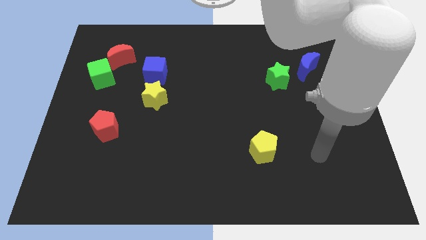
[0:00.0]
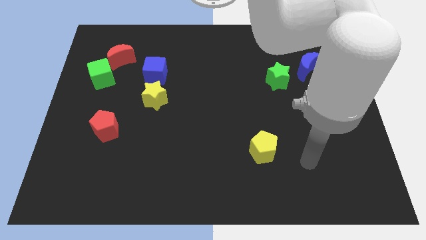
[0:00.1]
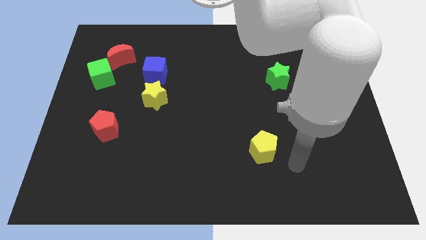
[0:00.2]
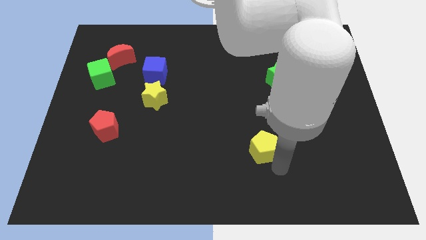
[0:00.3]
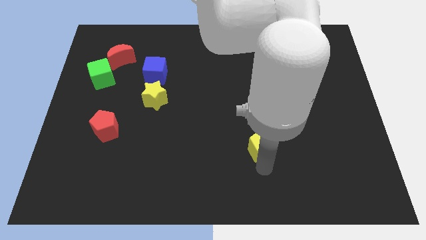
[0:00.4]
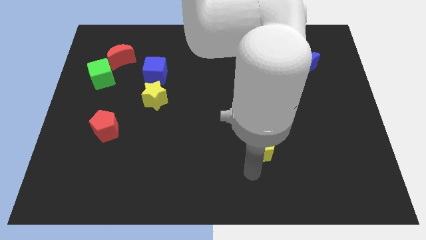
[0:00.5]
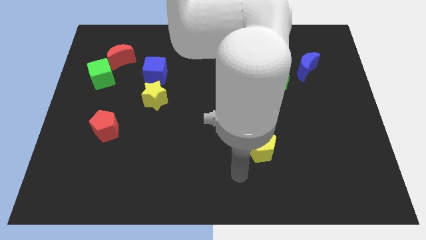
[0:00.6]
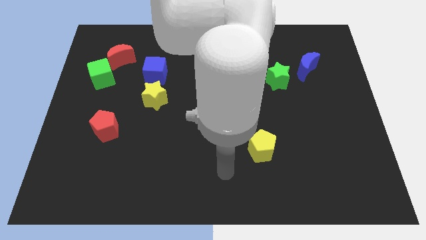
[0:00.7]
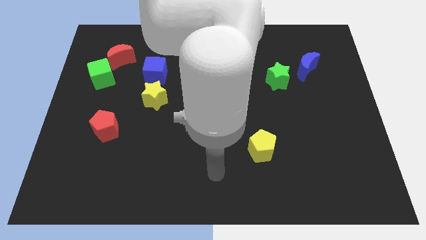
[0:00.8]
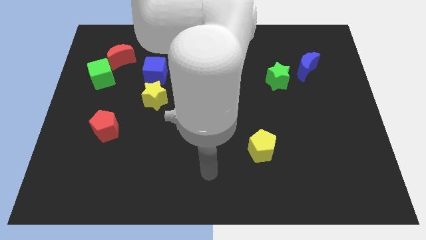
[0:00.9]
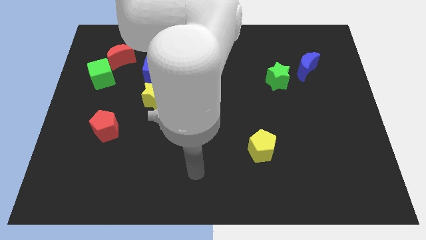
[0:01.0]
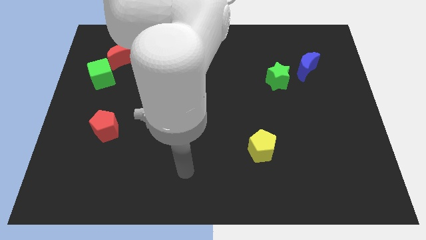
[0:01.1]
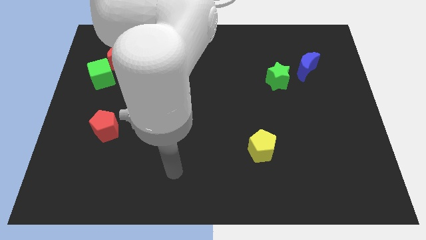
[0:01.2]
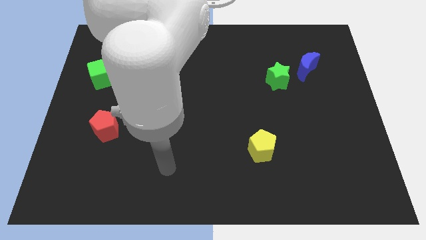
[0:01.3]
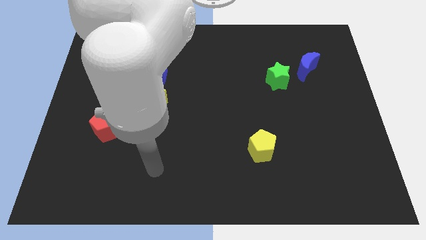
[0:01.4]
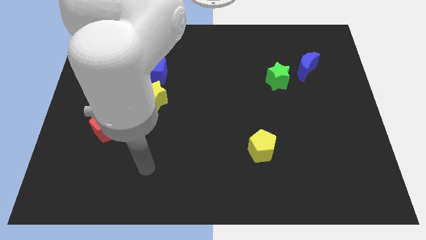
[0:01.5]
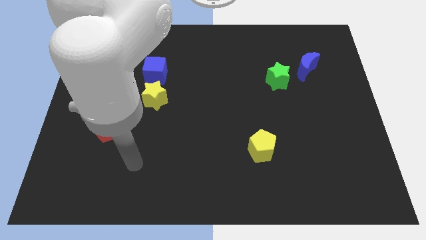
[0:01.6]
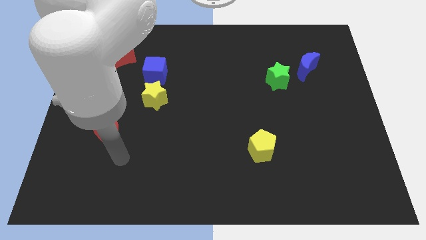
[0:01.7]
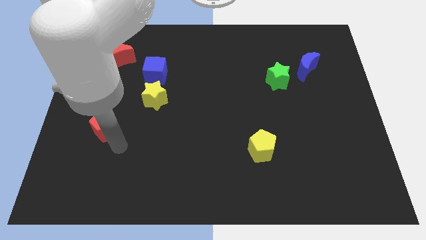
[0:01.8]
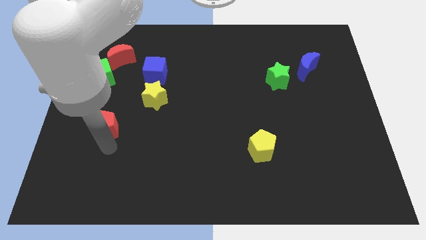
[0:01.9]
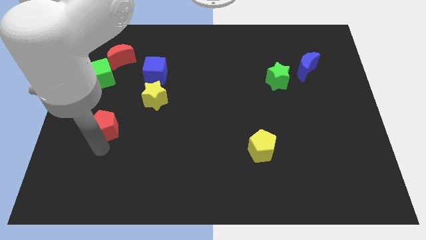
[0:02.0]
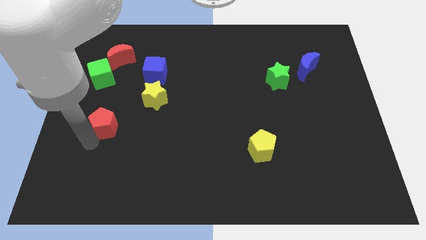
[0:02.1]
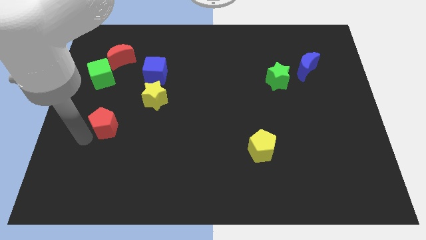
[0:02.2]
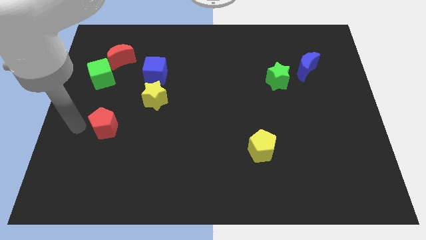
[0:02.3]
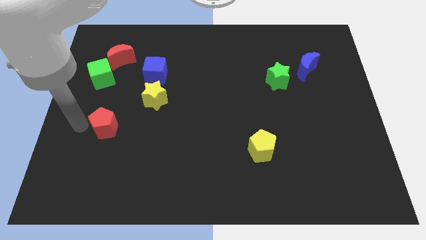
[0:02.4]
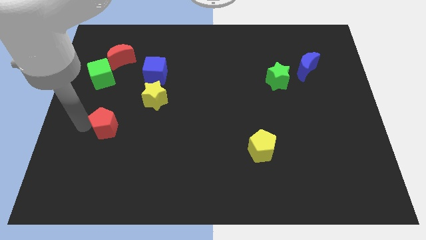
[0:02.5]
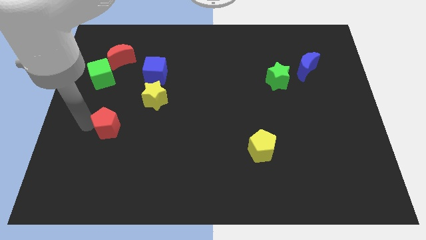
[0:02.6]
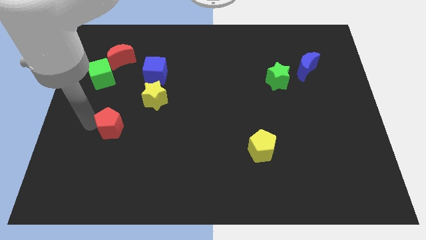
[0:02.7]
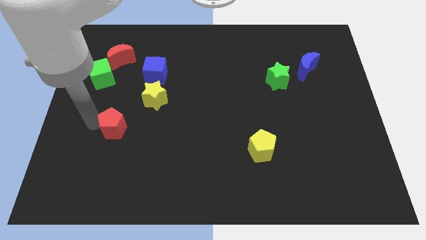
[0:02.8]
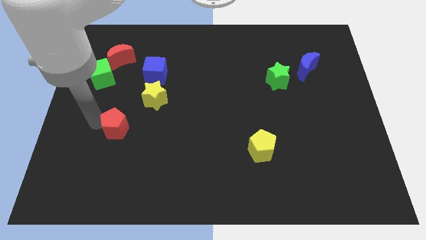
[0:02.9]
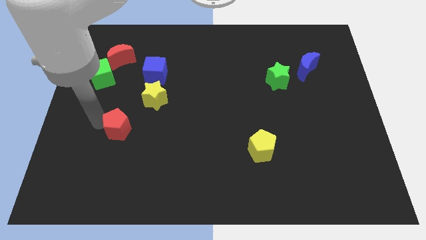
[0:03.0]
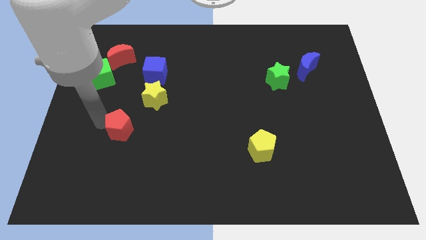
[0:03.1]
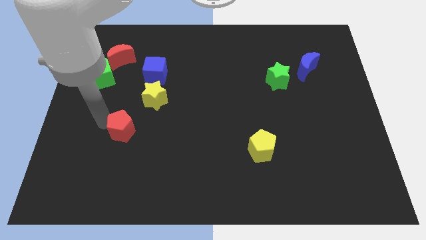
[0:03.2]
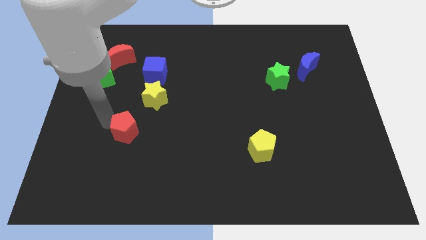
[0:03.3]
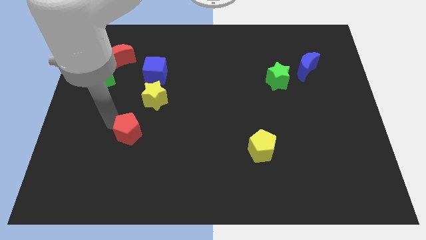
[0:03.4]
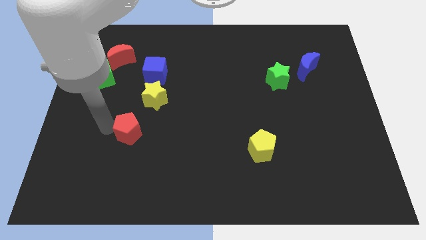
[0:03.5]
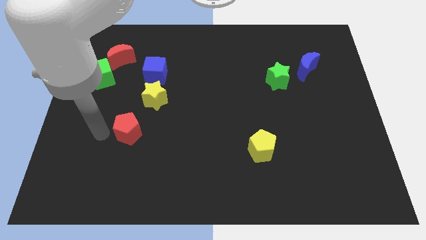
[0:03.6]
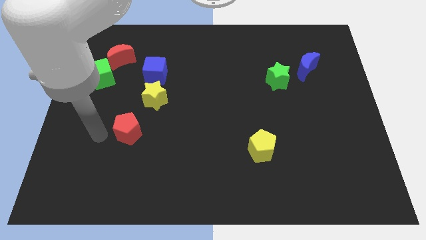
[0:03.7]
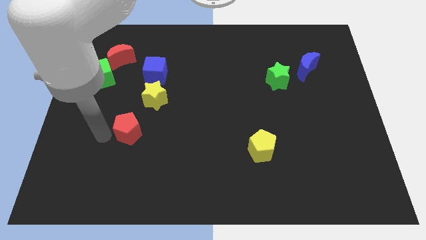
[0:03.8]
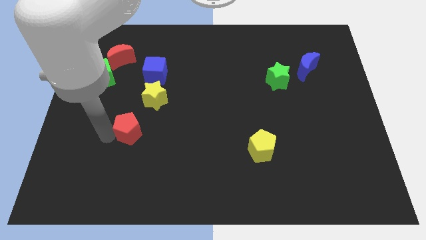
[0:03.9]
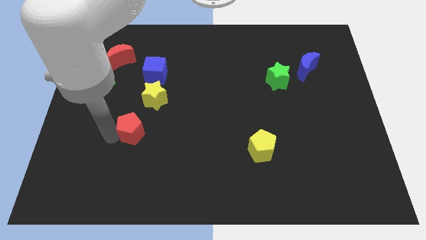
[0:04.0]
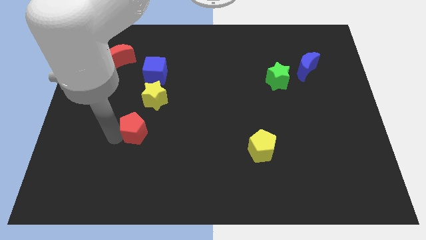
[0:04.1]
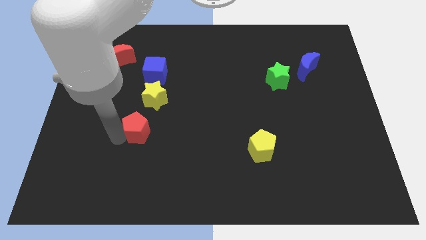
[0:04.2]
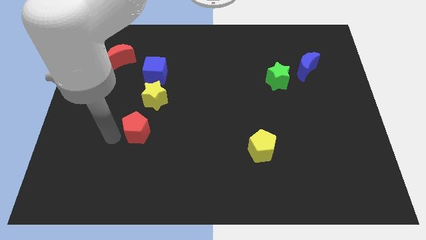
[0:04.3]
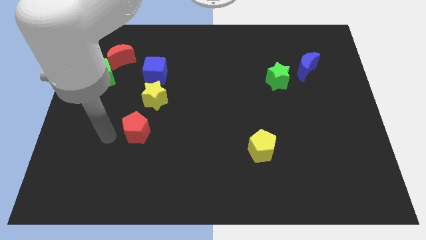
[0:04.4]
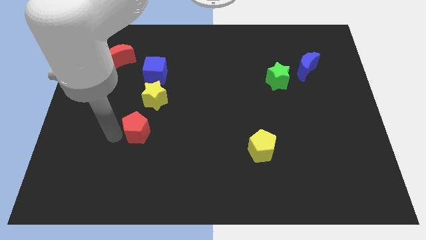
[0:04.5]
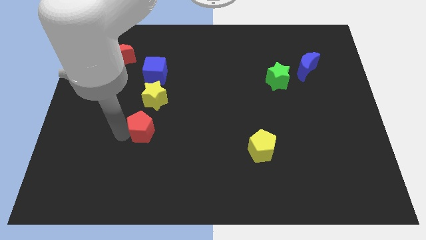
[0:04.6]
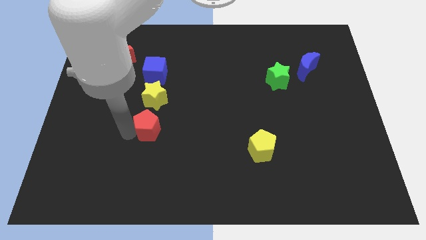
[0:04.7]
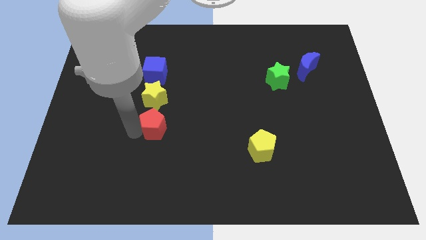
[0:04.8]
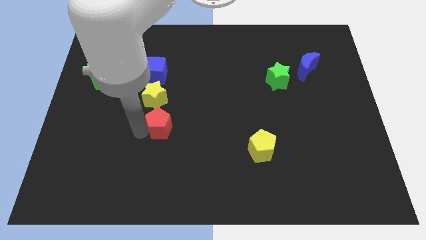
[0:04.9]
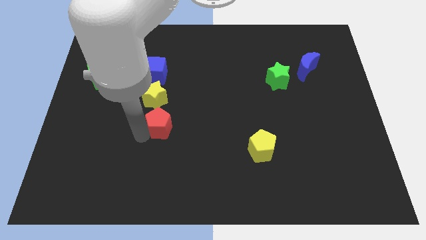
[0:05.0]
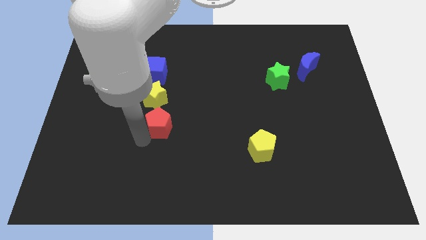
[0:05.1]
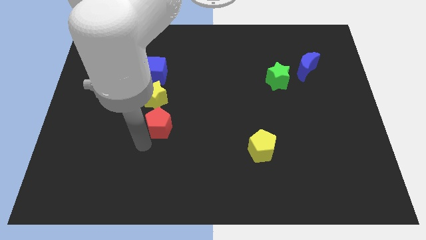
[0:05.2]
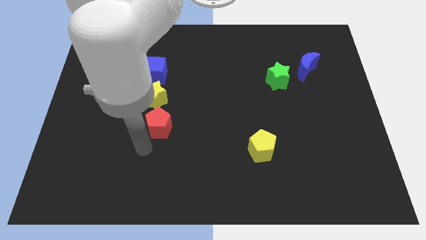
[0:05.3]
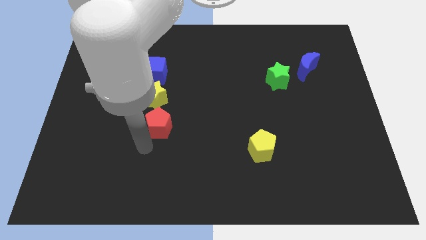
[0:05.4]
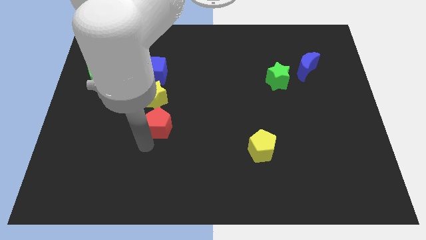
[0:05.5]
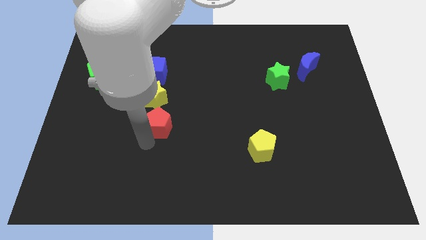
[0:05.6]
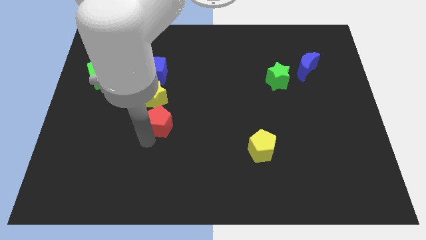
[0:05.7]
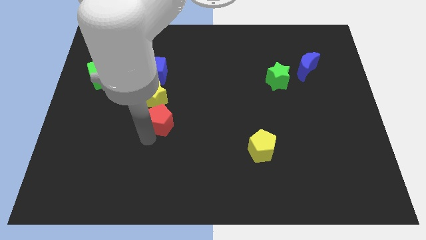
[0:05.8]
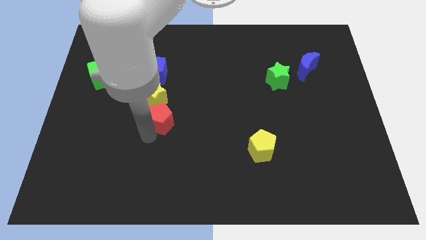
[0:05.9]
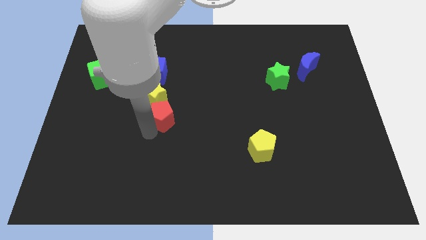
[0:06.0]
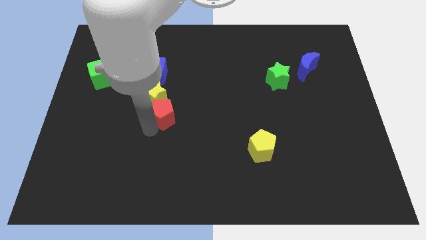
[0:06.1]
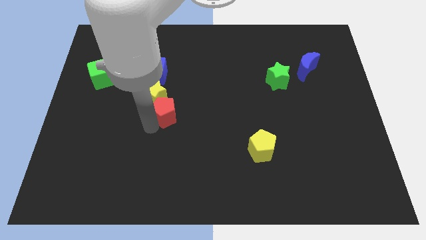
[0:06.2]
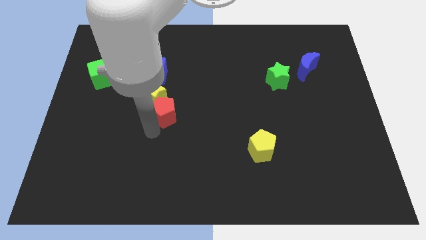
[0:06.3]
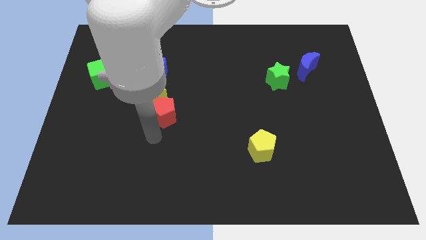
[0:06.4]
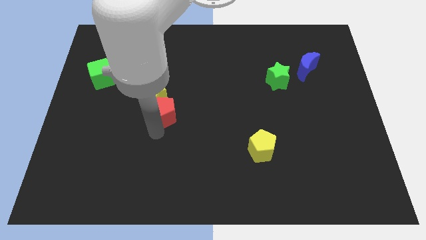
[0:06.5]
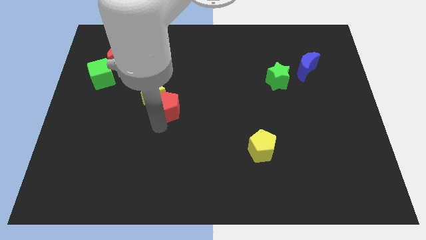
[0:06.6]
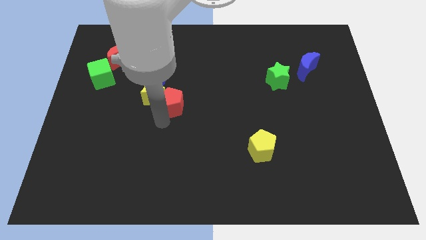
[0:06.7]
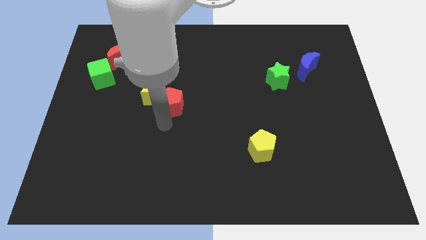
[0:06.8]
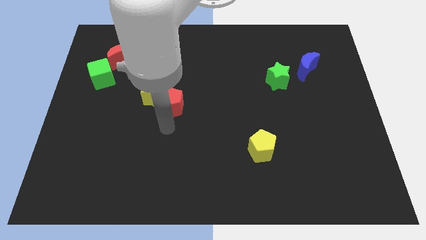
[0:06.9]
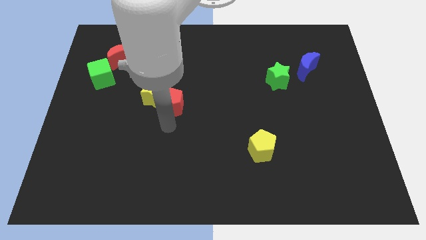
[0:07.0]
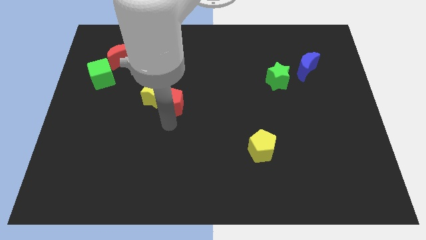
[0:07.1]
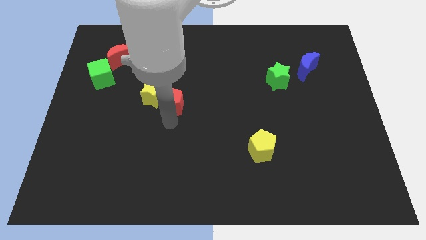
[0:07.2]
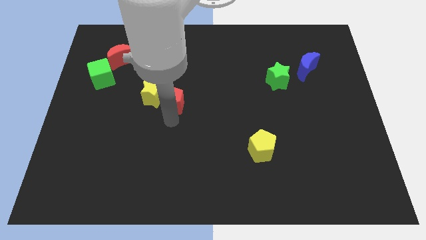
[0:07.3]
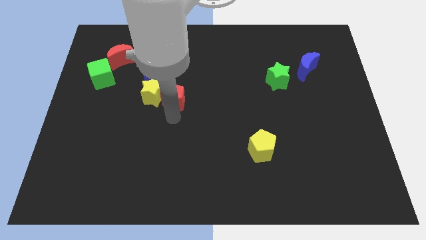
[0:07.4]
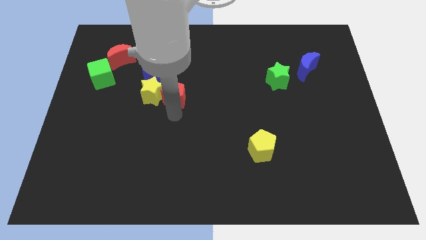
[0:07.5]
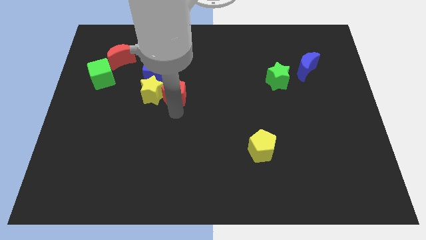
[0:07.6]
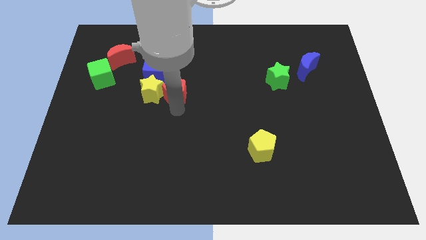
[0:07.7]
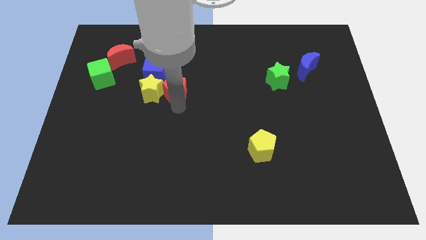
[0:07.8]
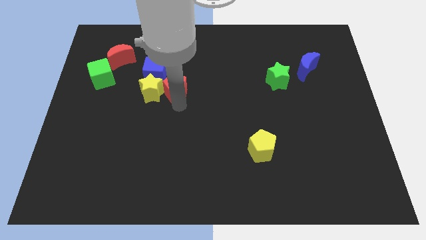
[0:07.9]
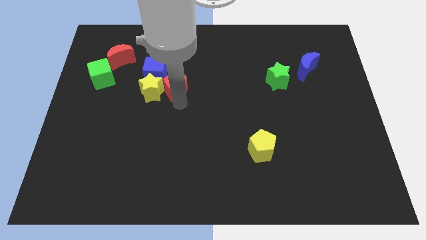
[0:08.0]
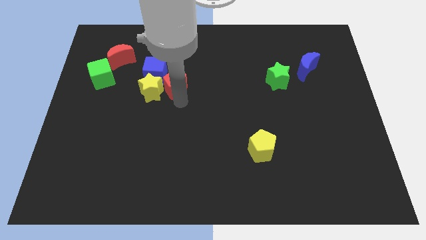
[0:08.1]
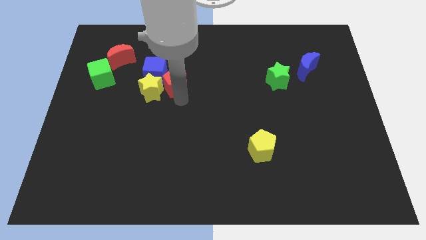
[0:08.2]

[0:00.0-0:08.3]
move the red pentagon diagonally up and right

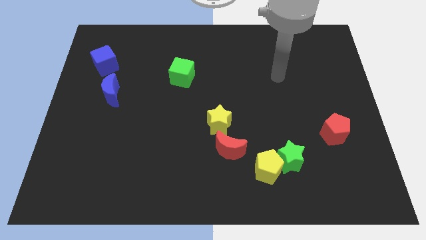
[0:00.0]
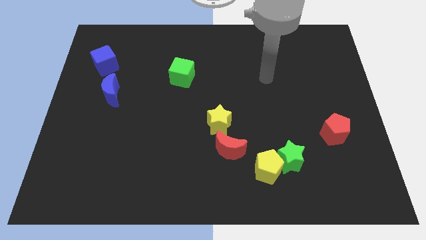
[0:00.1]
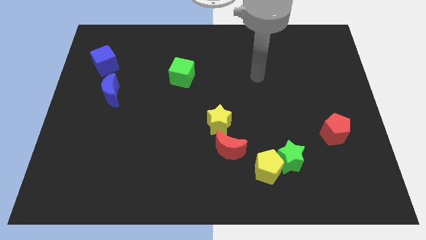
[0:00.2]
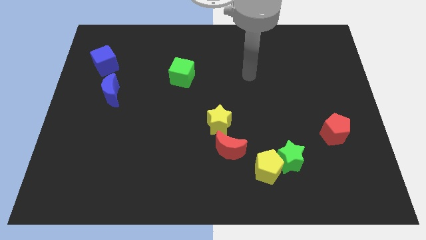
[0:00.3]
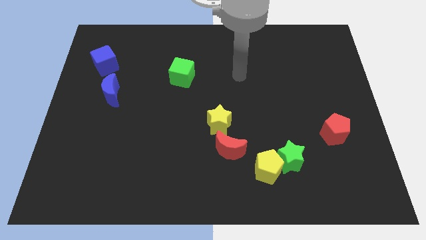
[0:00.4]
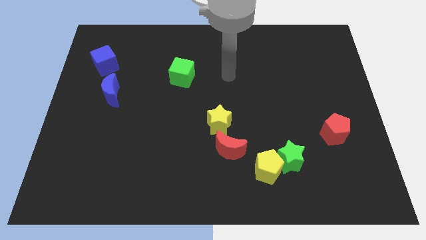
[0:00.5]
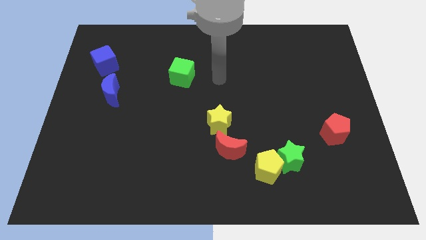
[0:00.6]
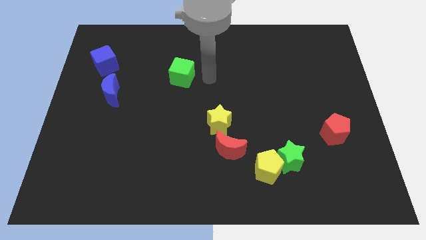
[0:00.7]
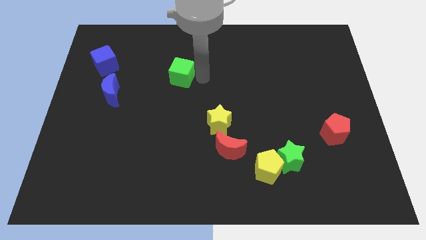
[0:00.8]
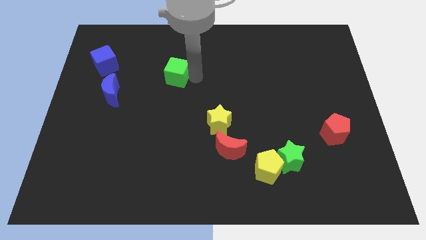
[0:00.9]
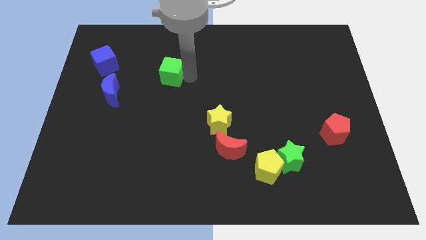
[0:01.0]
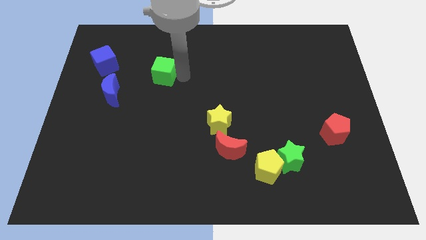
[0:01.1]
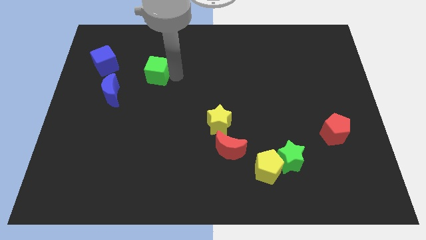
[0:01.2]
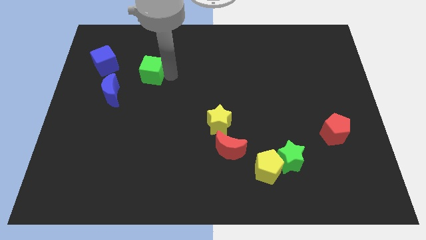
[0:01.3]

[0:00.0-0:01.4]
slide the green cube a little bit left
